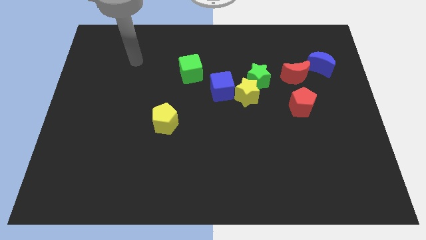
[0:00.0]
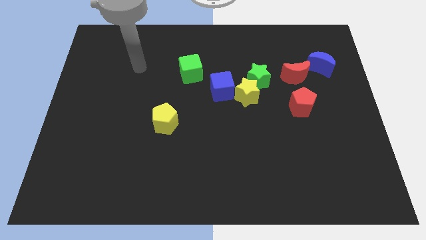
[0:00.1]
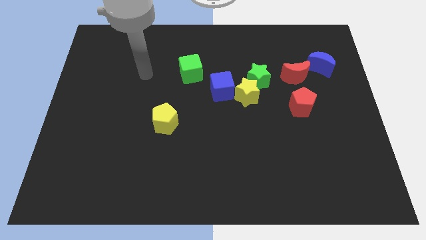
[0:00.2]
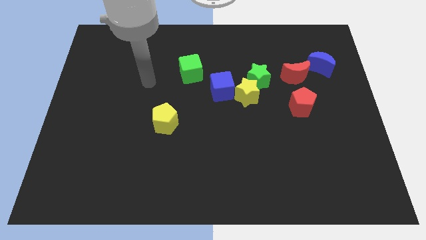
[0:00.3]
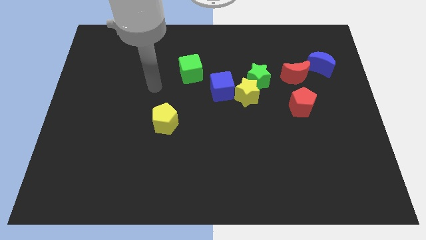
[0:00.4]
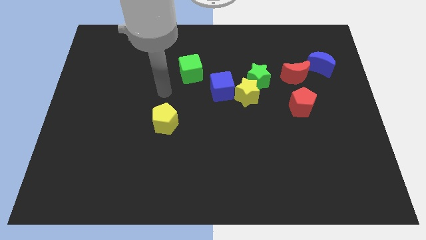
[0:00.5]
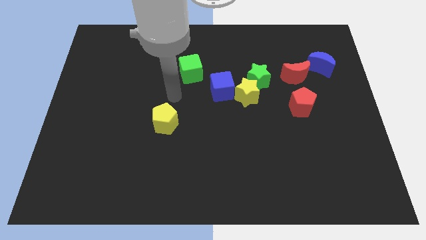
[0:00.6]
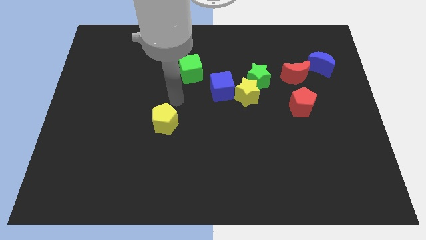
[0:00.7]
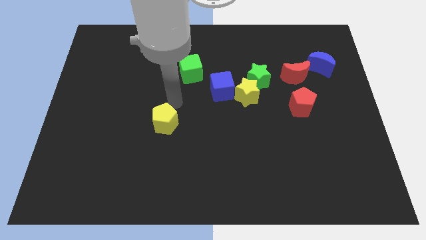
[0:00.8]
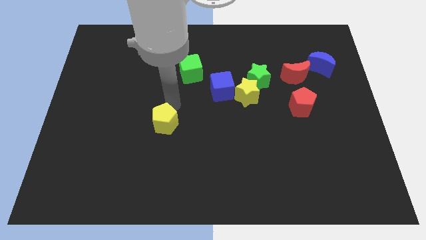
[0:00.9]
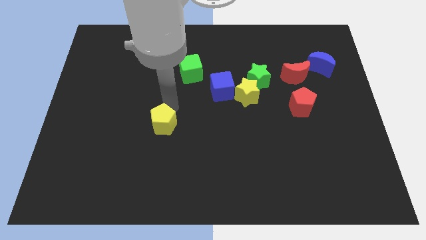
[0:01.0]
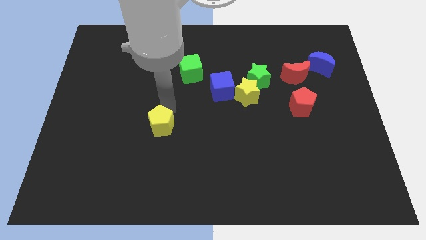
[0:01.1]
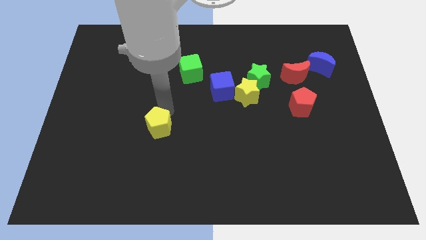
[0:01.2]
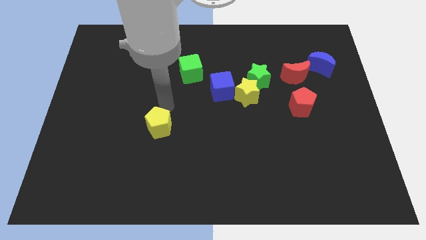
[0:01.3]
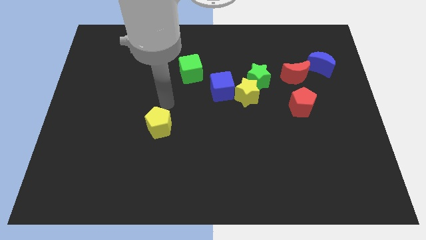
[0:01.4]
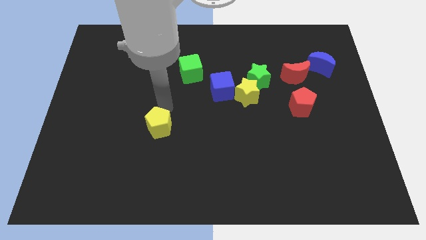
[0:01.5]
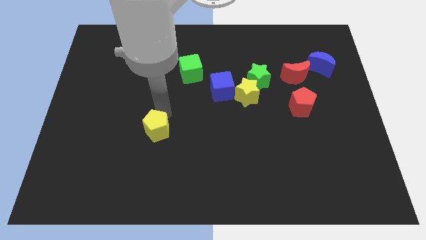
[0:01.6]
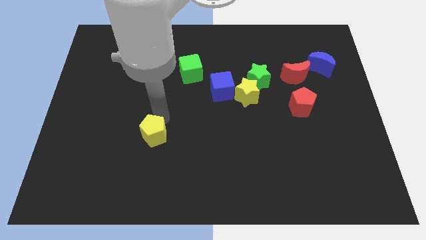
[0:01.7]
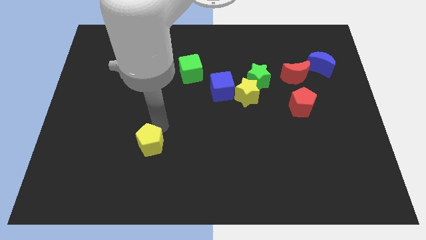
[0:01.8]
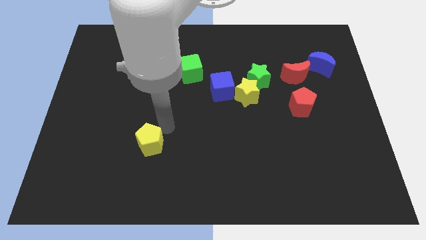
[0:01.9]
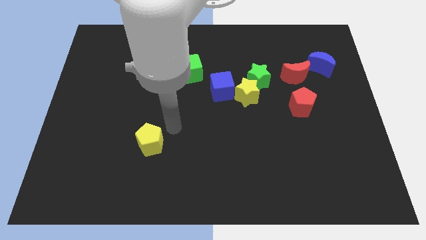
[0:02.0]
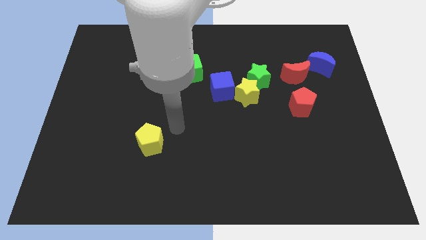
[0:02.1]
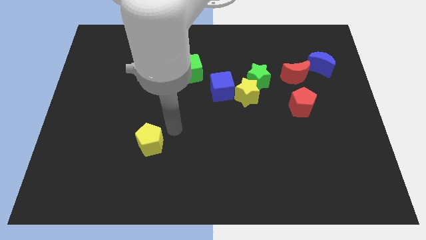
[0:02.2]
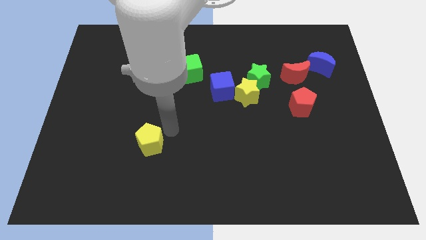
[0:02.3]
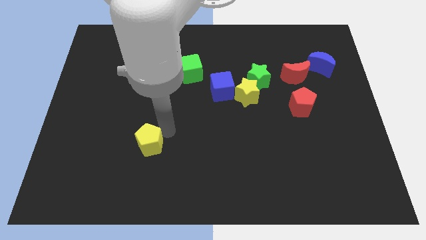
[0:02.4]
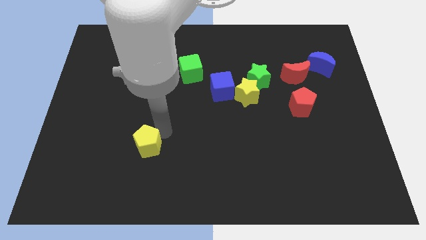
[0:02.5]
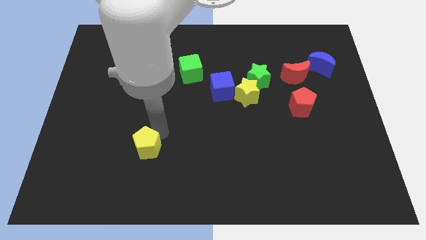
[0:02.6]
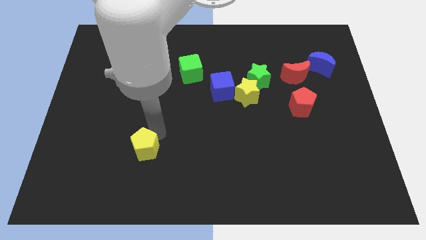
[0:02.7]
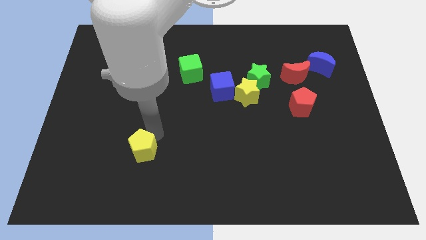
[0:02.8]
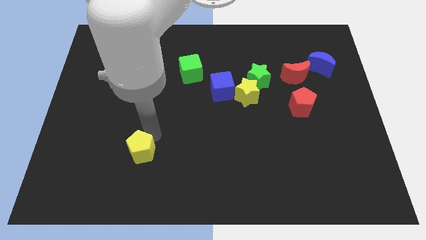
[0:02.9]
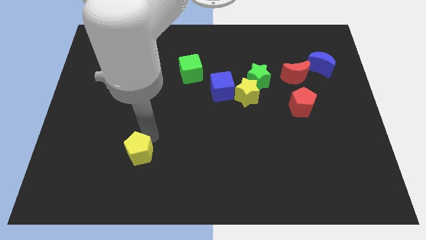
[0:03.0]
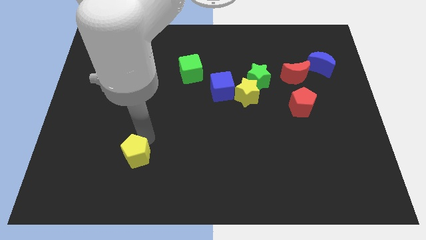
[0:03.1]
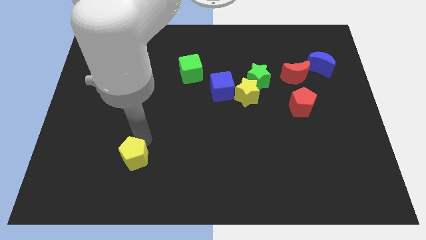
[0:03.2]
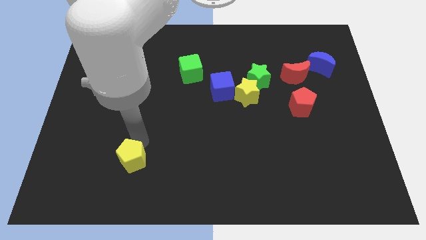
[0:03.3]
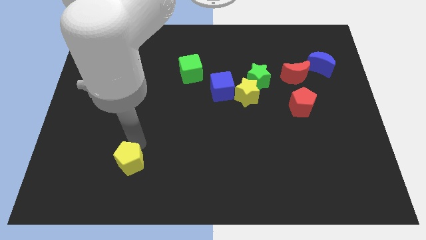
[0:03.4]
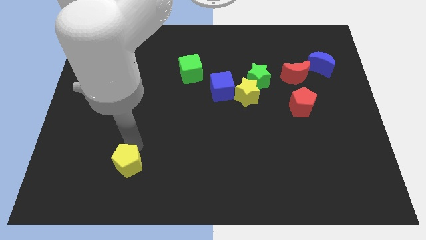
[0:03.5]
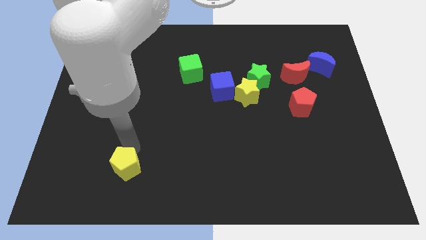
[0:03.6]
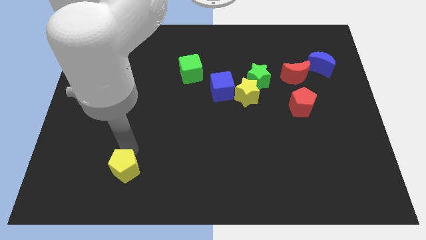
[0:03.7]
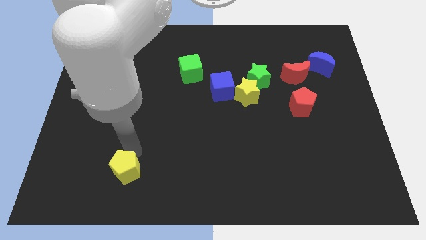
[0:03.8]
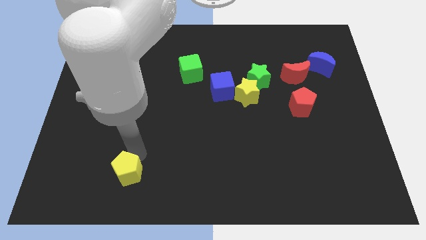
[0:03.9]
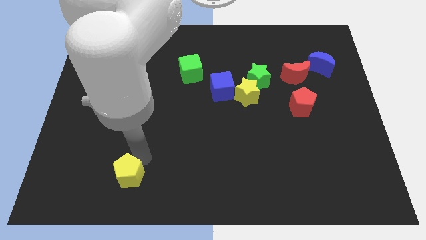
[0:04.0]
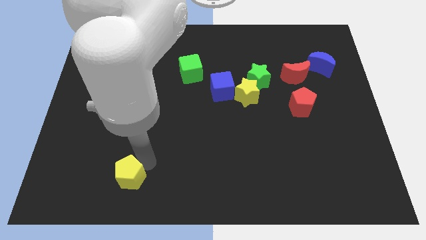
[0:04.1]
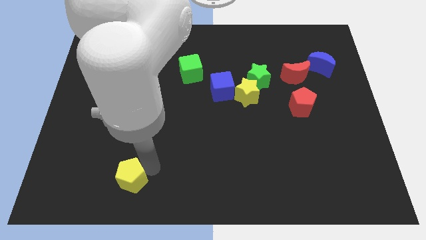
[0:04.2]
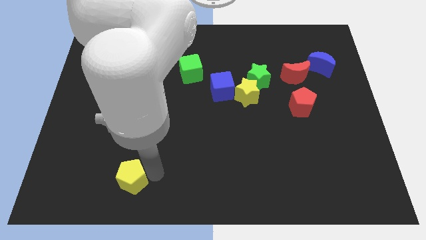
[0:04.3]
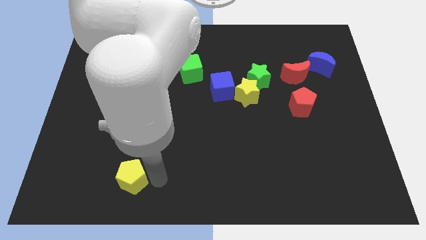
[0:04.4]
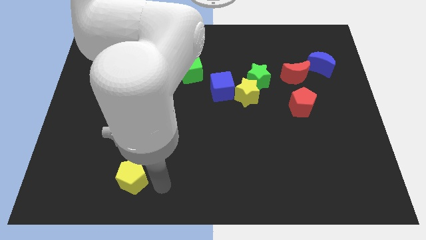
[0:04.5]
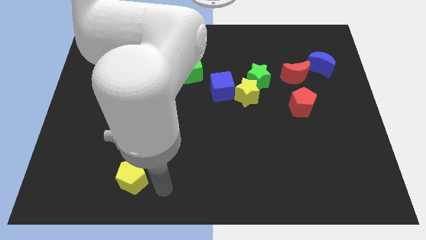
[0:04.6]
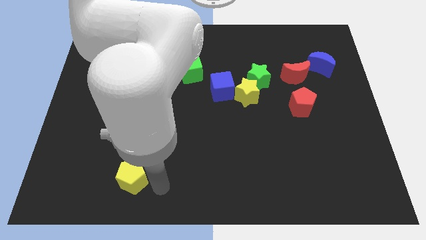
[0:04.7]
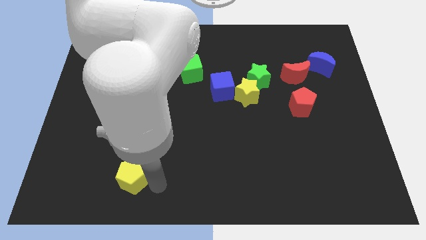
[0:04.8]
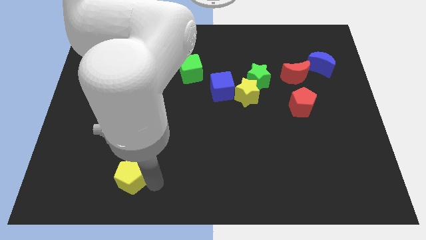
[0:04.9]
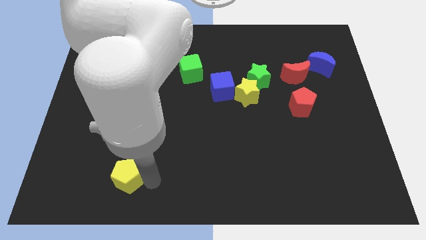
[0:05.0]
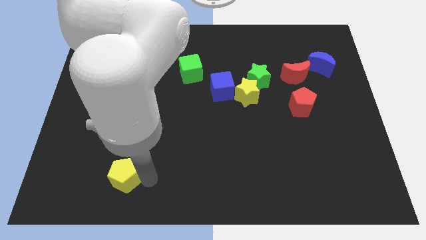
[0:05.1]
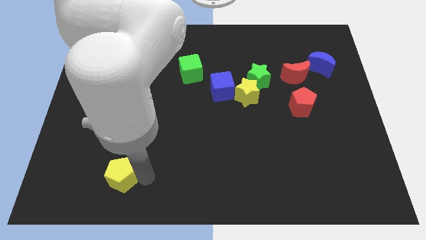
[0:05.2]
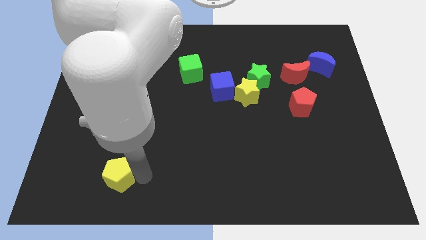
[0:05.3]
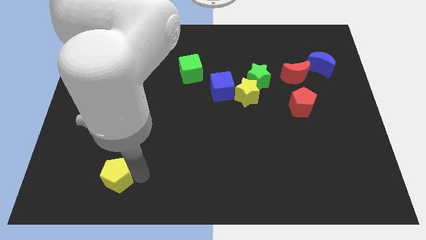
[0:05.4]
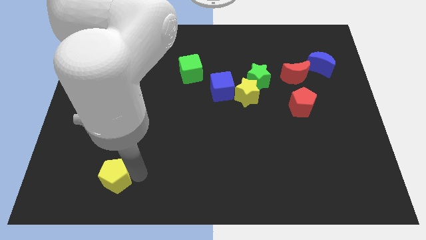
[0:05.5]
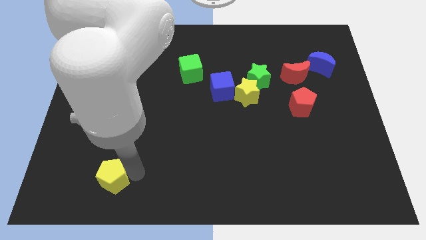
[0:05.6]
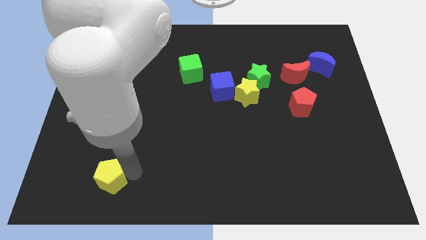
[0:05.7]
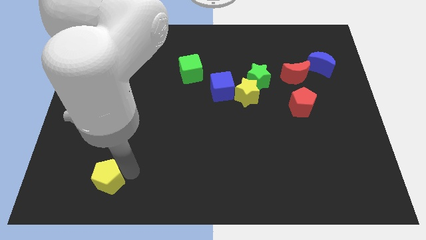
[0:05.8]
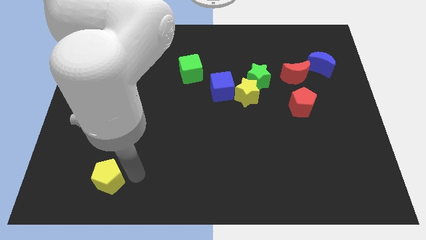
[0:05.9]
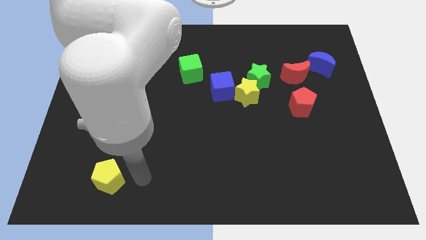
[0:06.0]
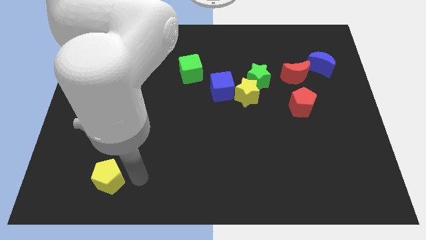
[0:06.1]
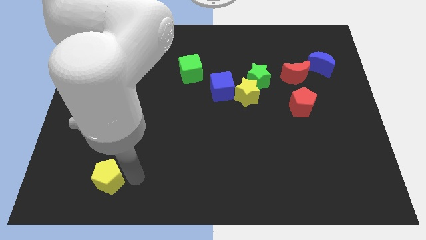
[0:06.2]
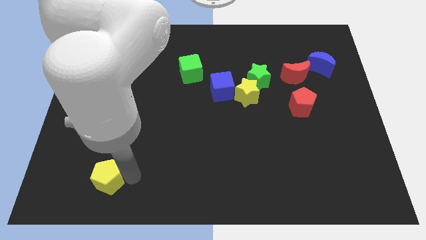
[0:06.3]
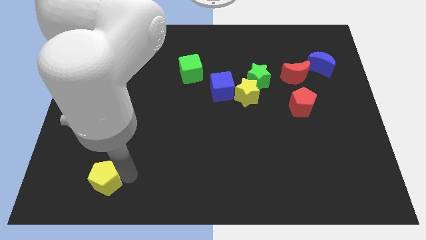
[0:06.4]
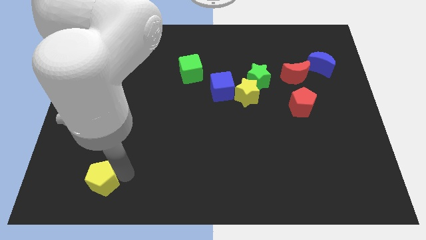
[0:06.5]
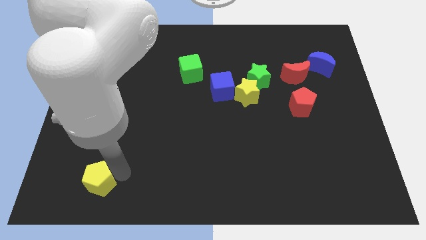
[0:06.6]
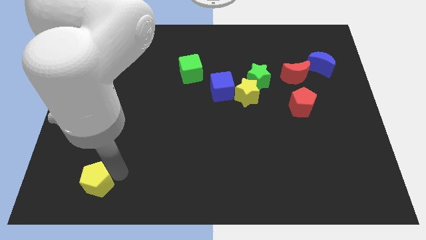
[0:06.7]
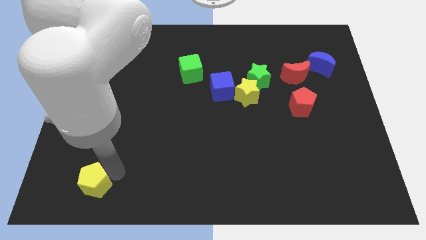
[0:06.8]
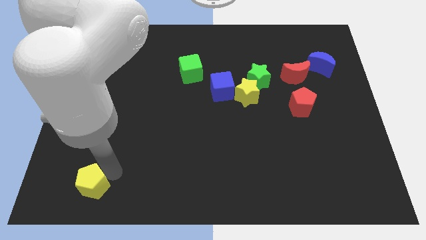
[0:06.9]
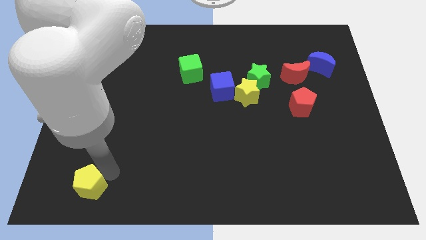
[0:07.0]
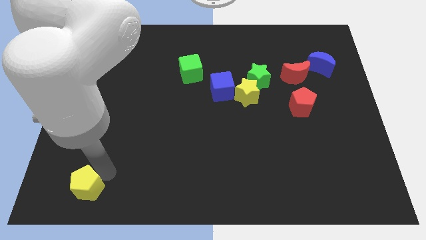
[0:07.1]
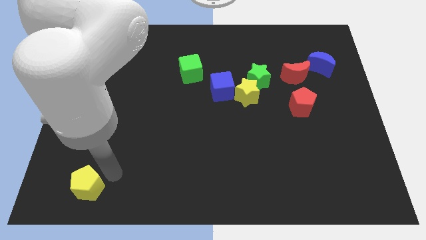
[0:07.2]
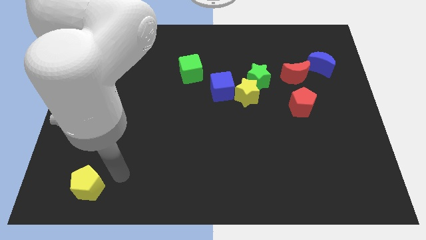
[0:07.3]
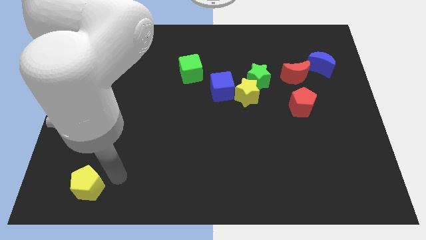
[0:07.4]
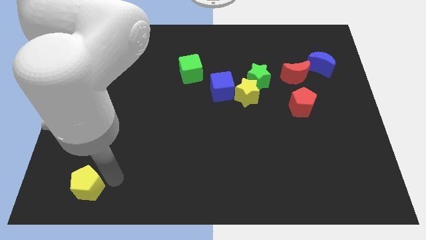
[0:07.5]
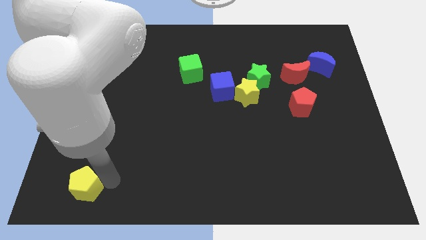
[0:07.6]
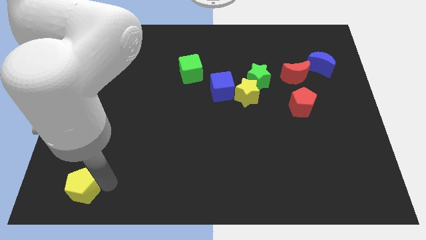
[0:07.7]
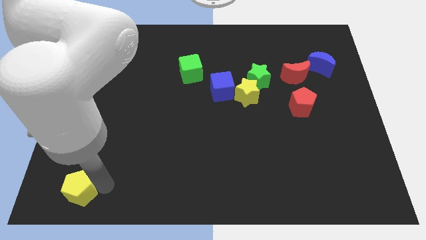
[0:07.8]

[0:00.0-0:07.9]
push the yellow pentagon to the bottom left corner
